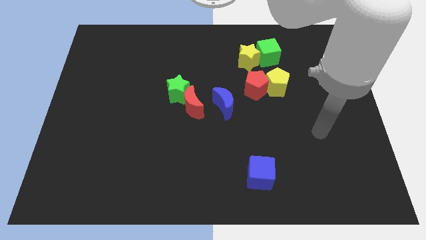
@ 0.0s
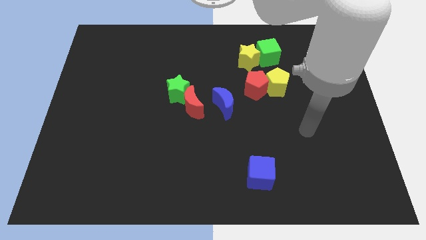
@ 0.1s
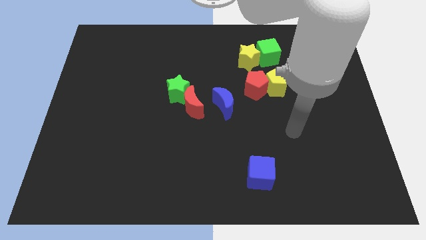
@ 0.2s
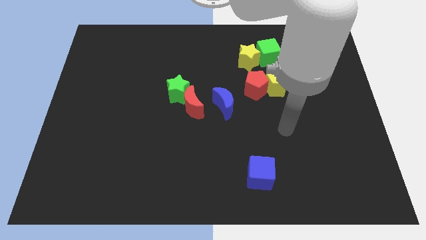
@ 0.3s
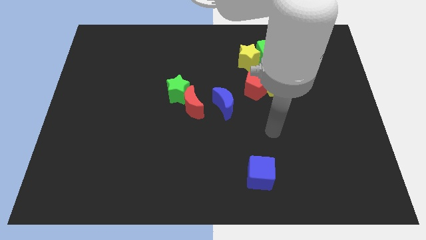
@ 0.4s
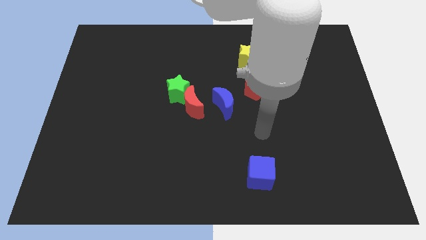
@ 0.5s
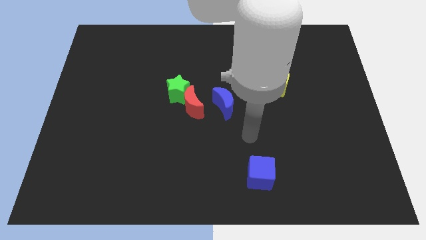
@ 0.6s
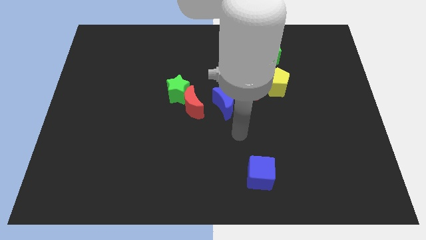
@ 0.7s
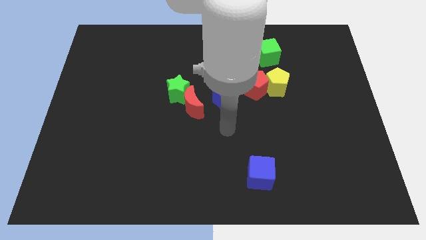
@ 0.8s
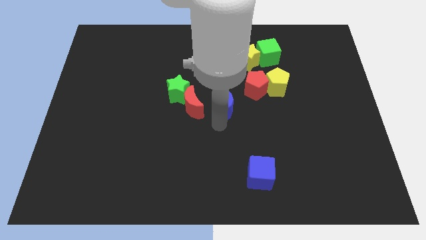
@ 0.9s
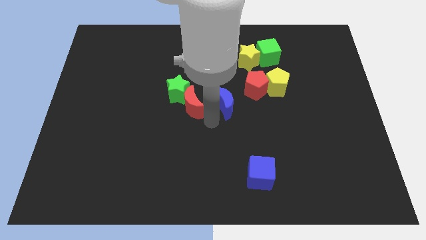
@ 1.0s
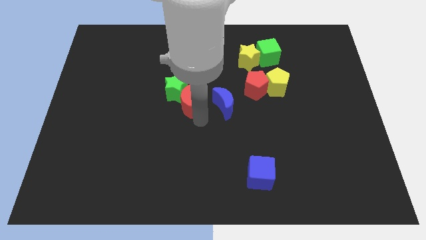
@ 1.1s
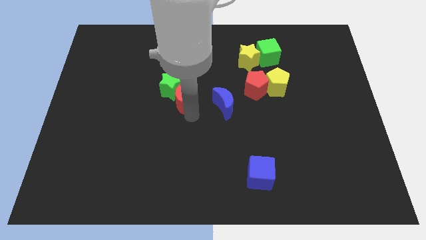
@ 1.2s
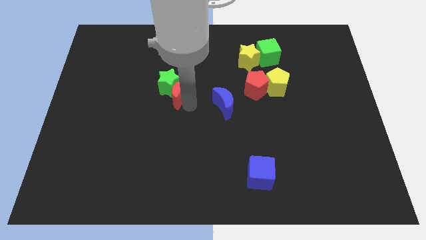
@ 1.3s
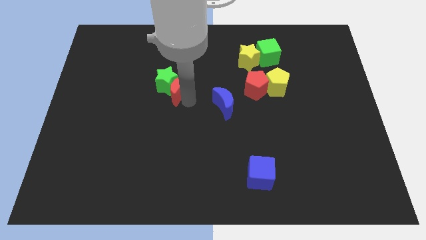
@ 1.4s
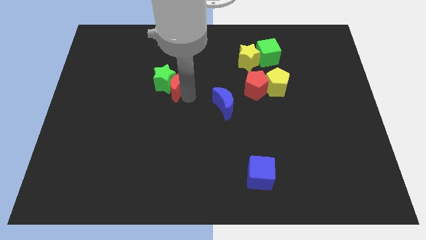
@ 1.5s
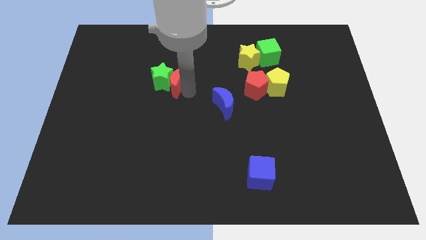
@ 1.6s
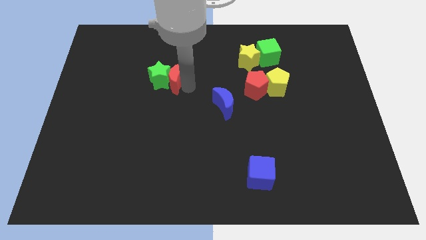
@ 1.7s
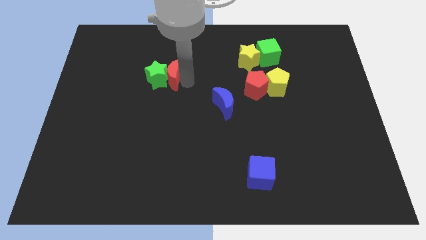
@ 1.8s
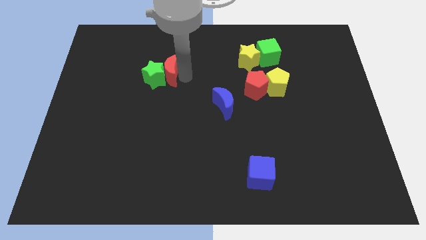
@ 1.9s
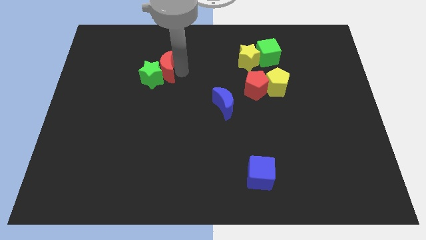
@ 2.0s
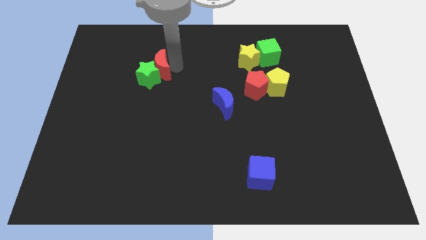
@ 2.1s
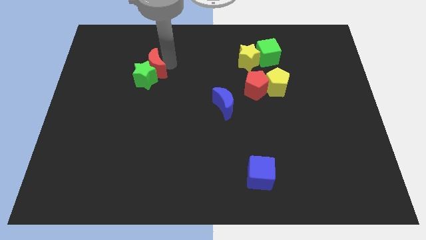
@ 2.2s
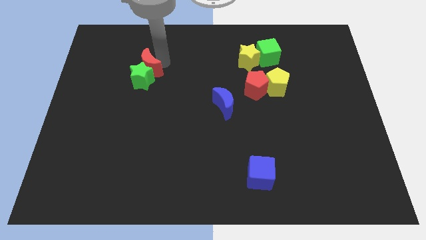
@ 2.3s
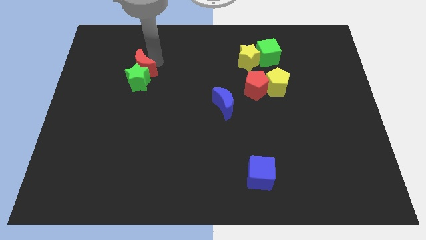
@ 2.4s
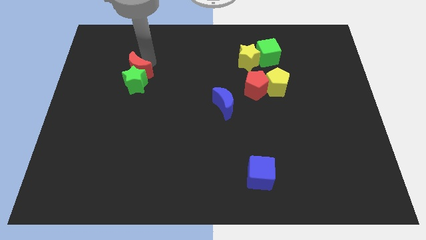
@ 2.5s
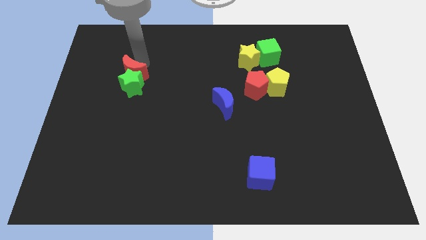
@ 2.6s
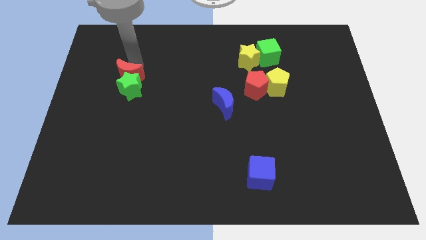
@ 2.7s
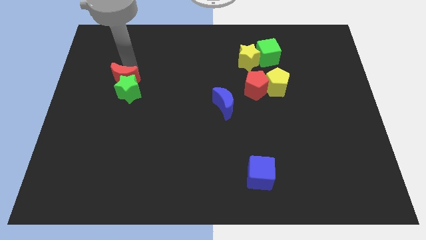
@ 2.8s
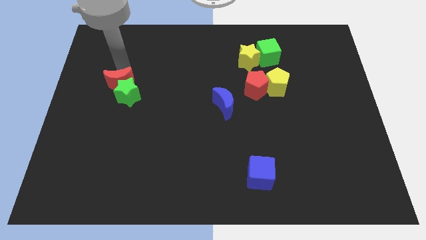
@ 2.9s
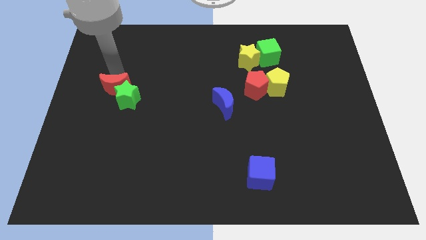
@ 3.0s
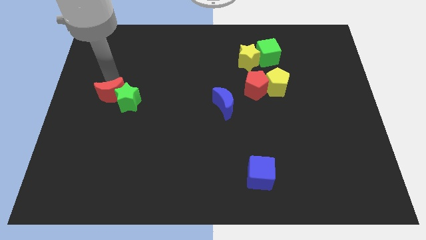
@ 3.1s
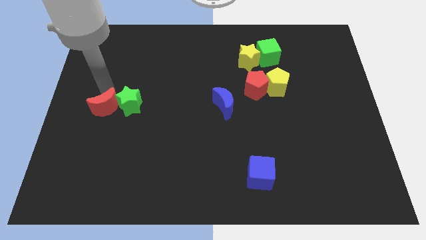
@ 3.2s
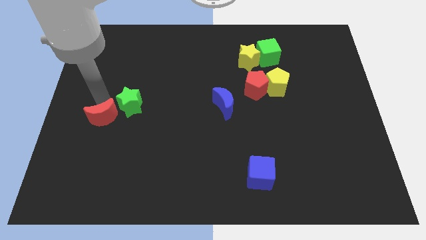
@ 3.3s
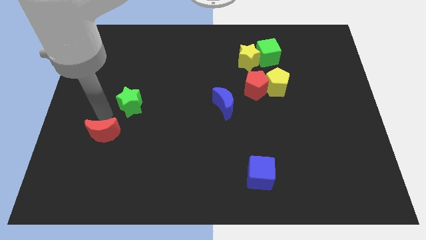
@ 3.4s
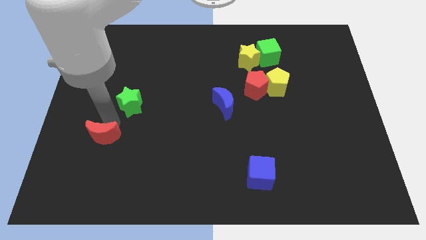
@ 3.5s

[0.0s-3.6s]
move the green star away from the red moon

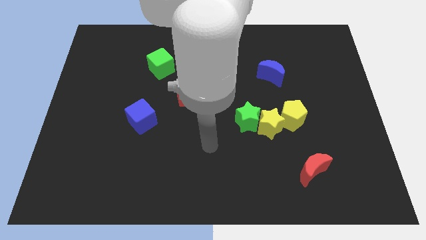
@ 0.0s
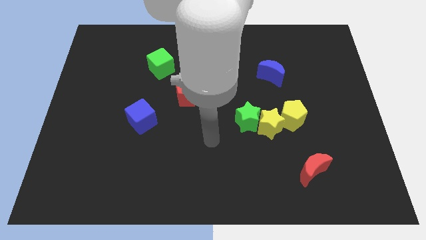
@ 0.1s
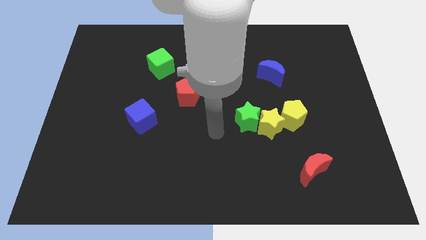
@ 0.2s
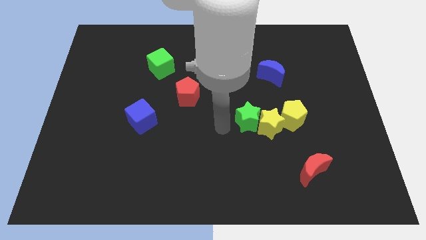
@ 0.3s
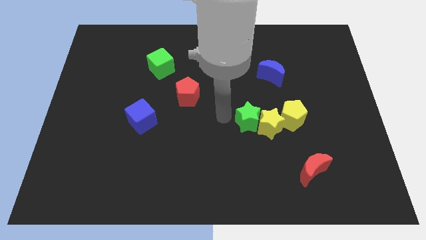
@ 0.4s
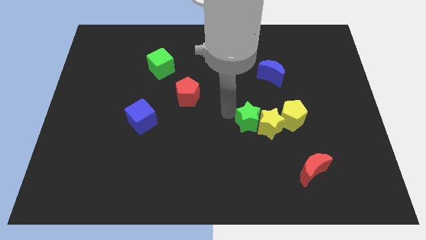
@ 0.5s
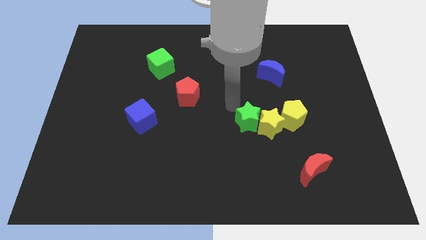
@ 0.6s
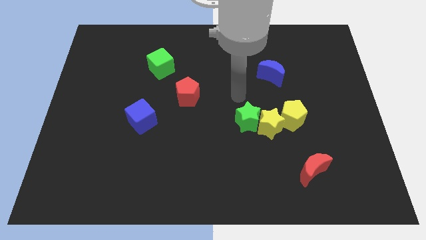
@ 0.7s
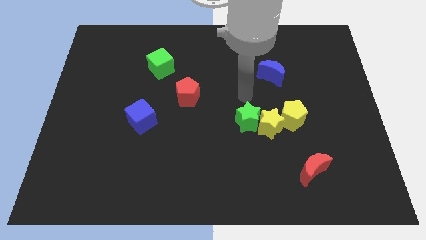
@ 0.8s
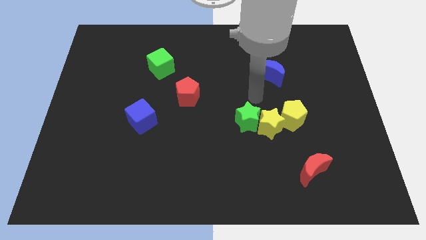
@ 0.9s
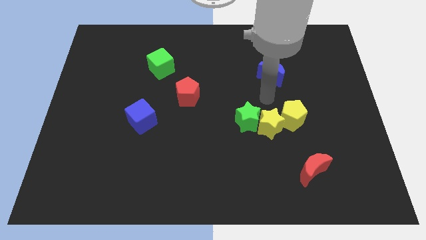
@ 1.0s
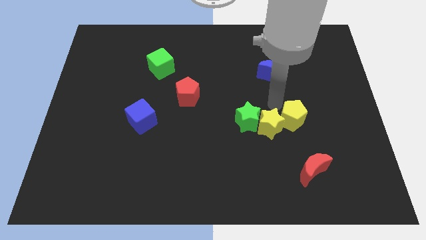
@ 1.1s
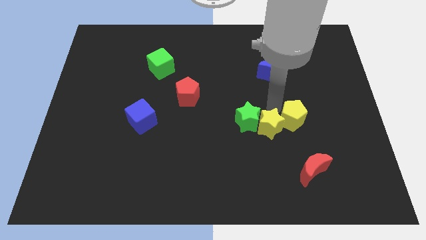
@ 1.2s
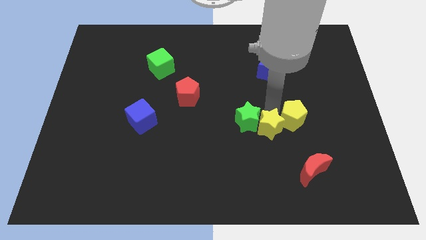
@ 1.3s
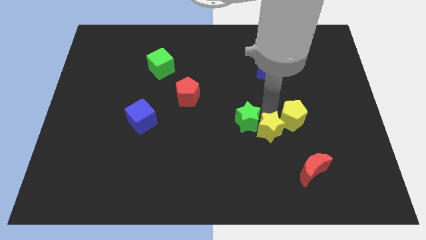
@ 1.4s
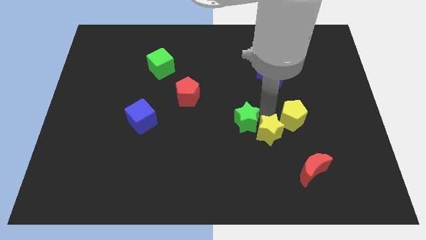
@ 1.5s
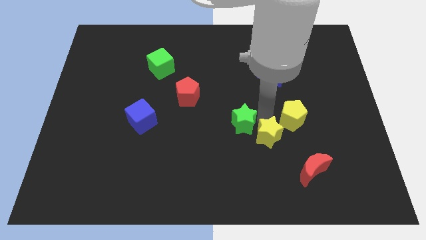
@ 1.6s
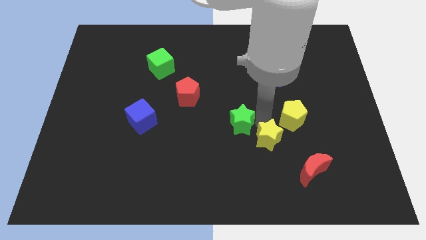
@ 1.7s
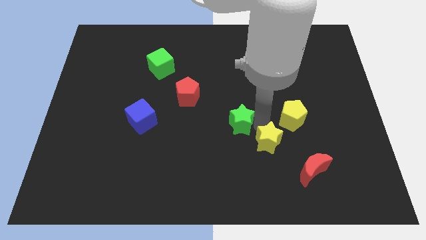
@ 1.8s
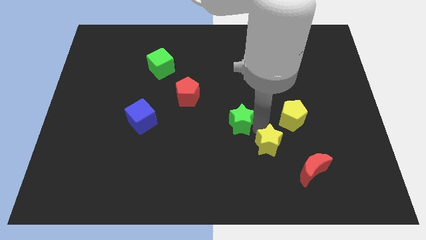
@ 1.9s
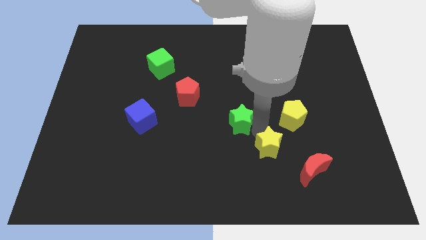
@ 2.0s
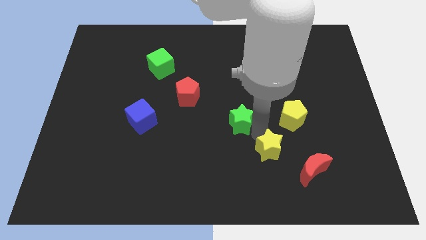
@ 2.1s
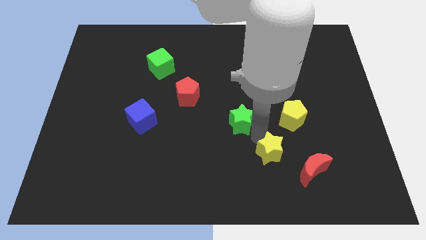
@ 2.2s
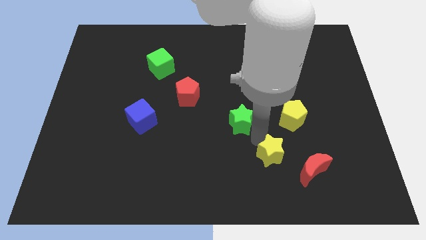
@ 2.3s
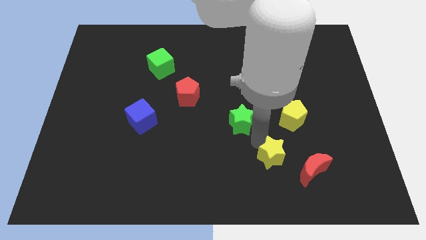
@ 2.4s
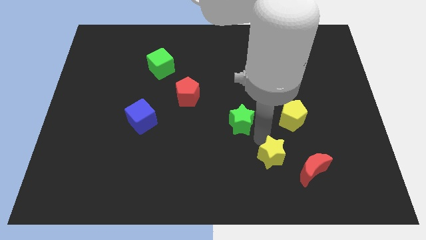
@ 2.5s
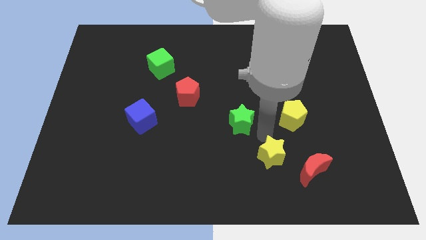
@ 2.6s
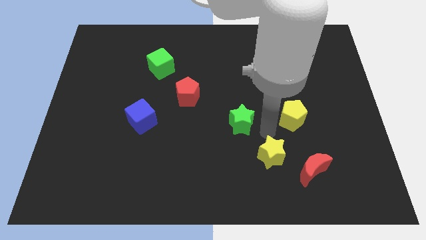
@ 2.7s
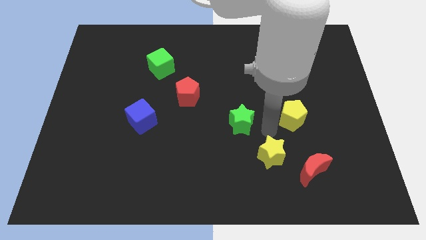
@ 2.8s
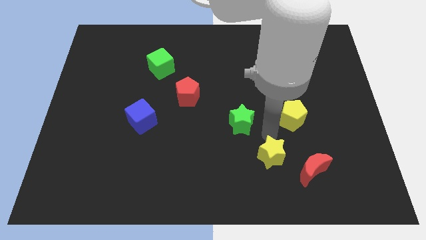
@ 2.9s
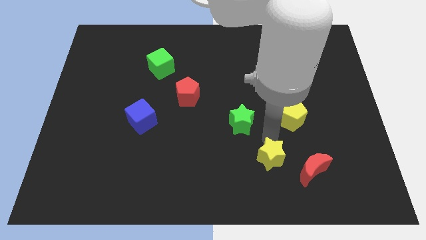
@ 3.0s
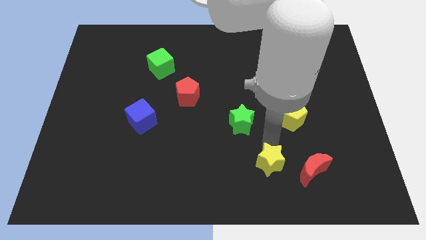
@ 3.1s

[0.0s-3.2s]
pull the yellow star apart from the green star and yellow pentagon

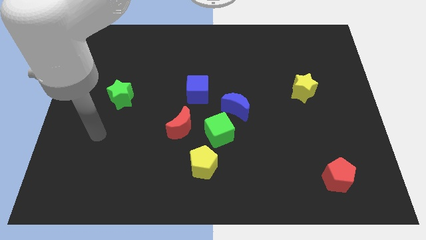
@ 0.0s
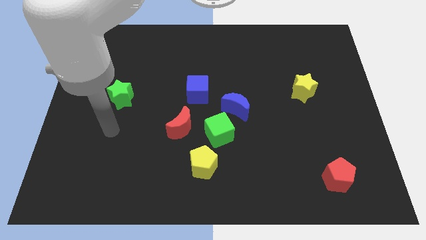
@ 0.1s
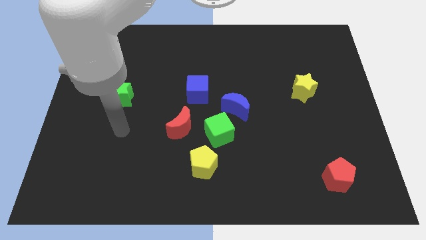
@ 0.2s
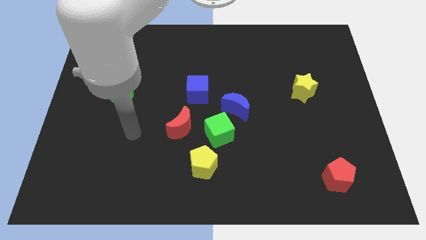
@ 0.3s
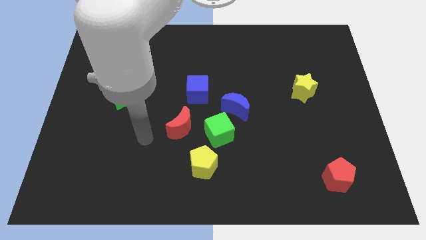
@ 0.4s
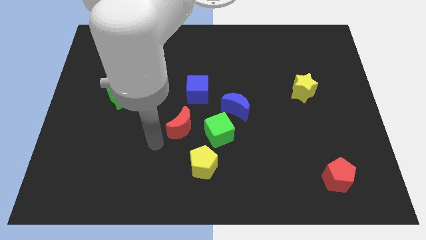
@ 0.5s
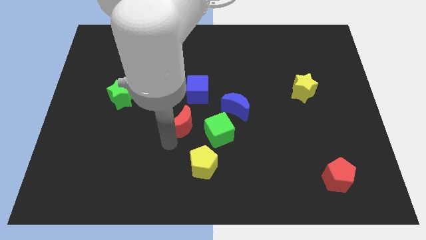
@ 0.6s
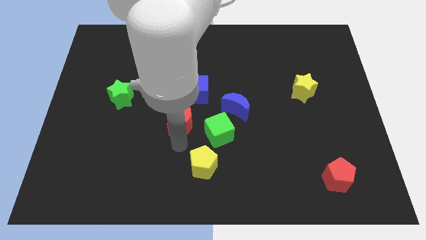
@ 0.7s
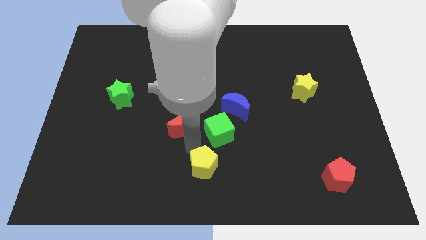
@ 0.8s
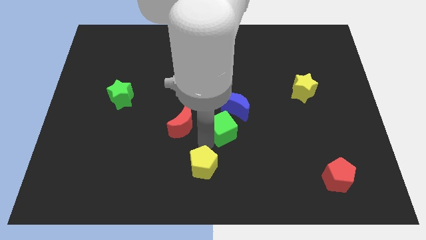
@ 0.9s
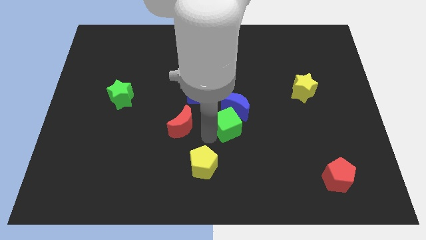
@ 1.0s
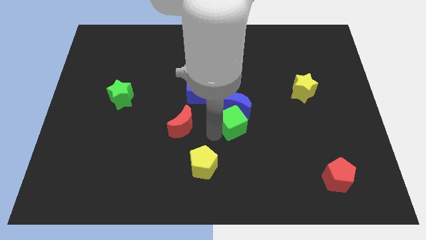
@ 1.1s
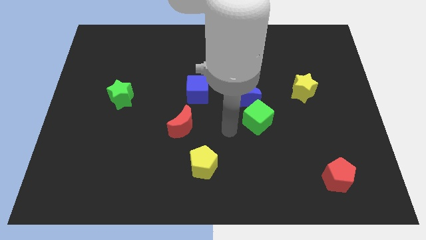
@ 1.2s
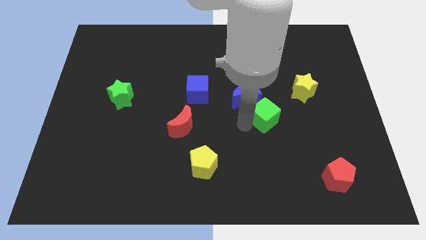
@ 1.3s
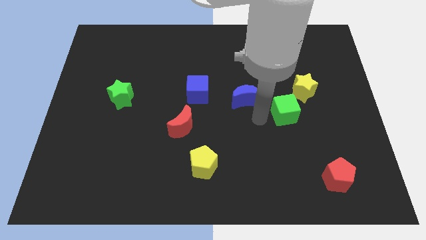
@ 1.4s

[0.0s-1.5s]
pull the blue moon apart from the green cube

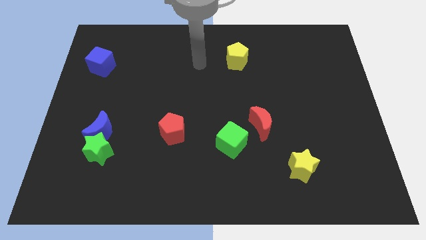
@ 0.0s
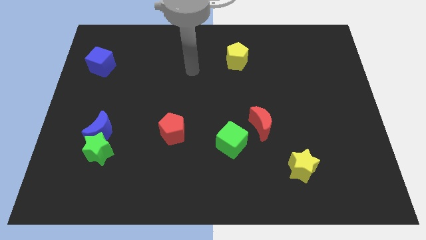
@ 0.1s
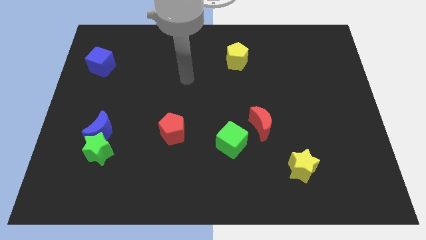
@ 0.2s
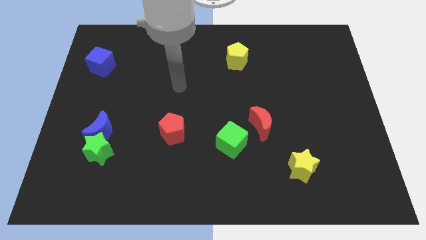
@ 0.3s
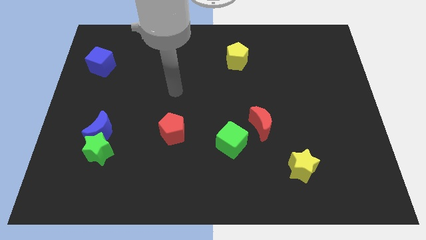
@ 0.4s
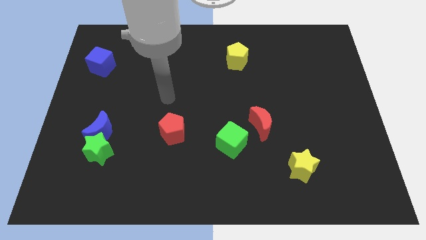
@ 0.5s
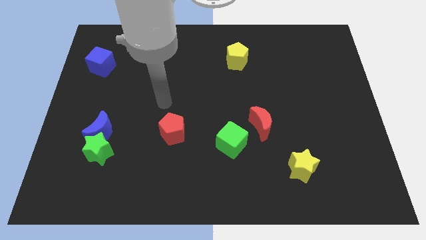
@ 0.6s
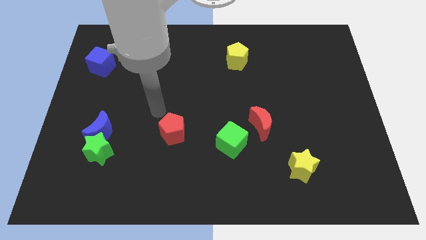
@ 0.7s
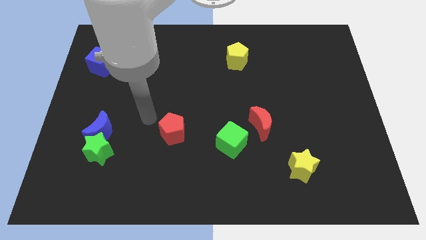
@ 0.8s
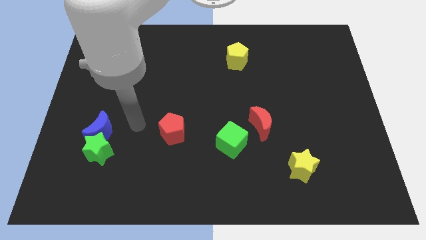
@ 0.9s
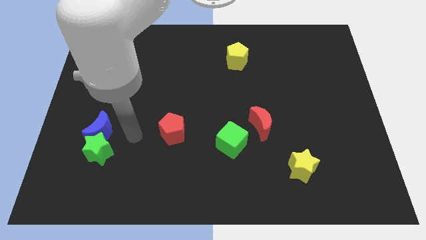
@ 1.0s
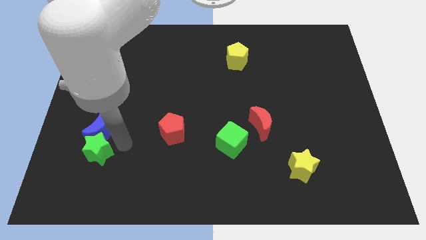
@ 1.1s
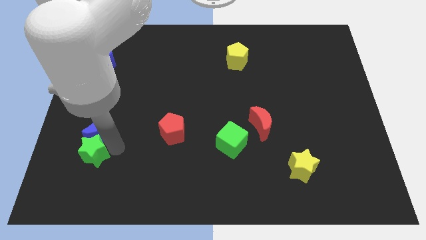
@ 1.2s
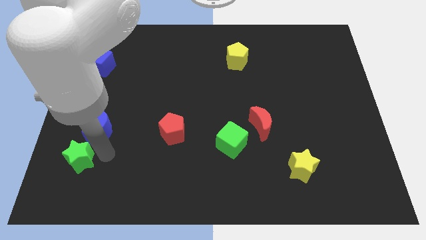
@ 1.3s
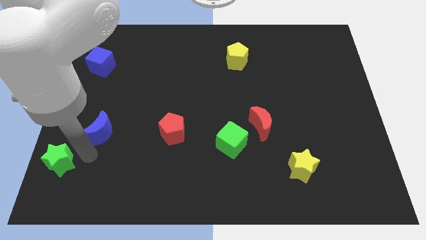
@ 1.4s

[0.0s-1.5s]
separate the blue moon from the green star
